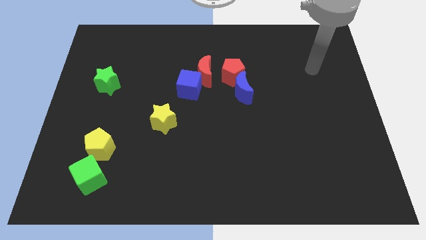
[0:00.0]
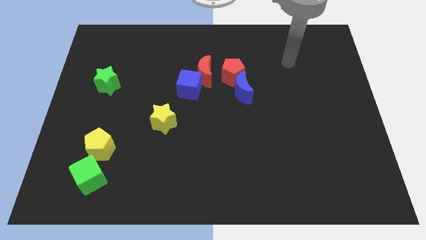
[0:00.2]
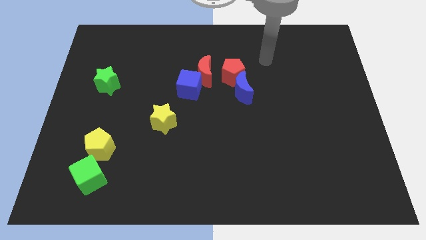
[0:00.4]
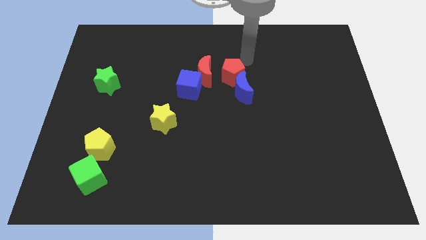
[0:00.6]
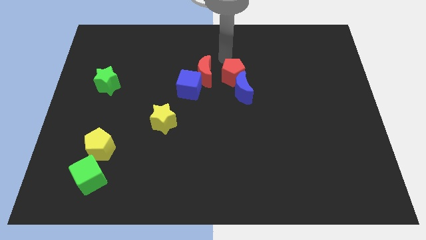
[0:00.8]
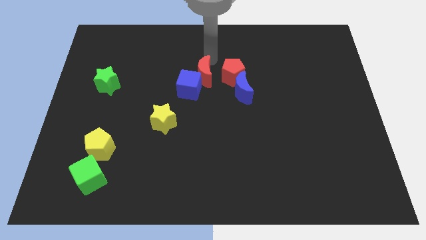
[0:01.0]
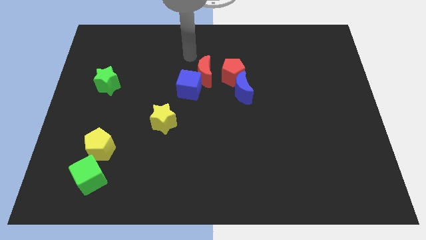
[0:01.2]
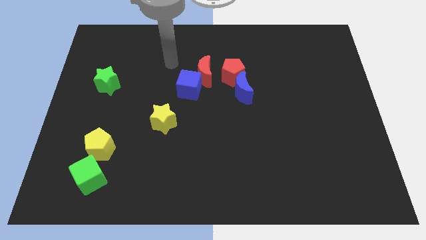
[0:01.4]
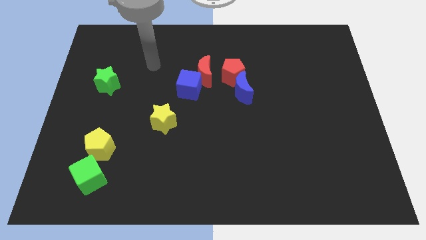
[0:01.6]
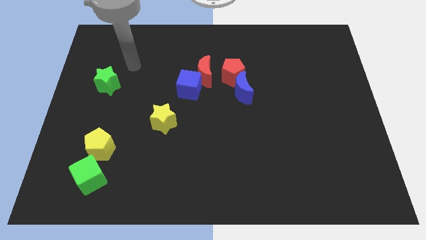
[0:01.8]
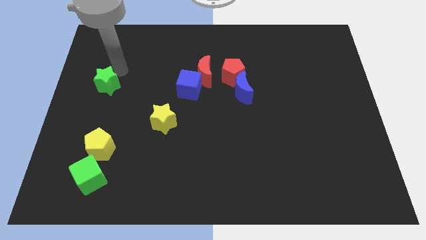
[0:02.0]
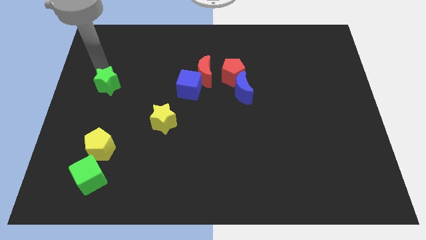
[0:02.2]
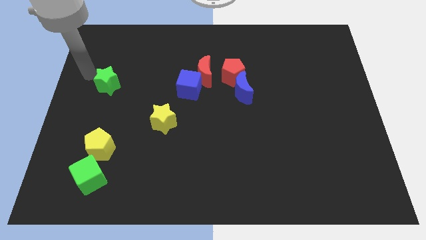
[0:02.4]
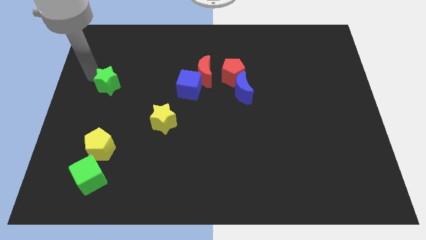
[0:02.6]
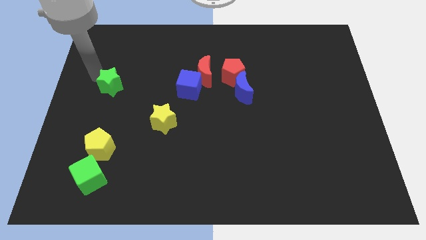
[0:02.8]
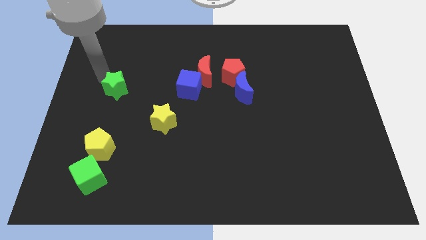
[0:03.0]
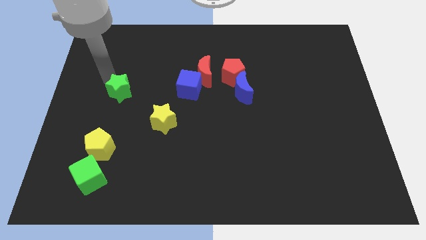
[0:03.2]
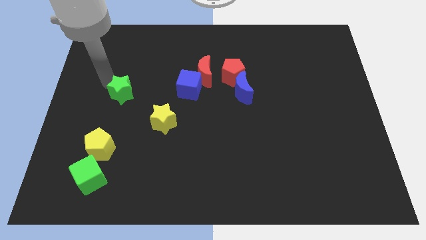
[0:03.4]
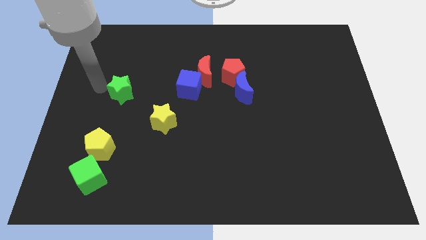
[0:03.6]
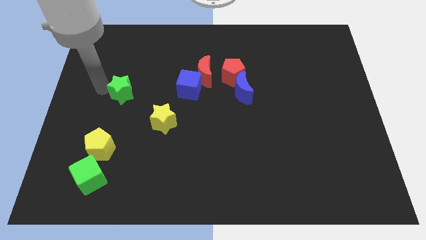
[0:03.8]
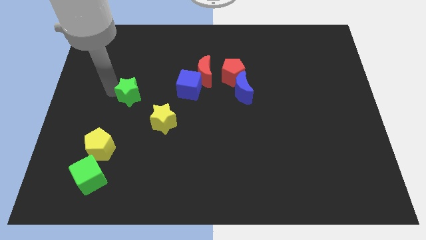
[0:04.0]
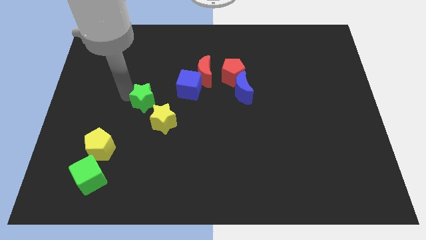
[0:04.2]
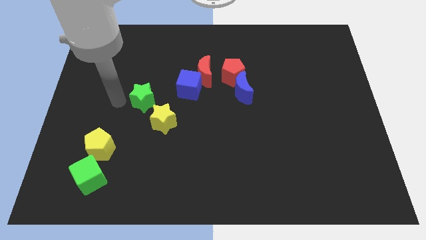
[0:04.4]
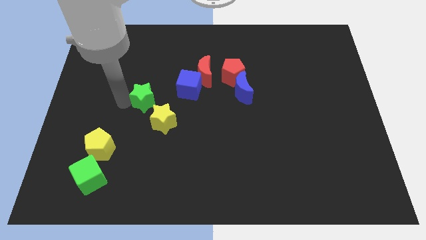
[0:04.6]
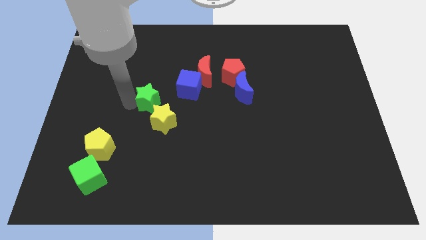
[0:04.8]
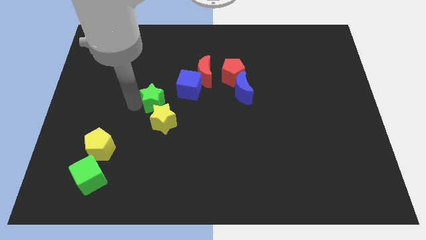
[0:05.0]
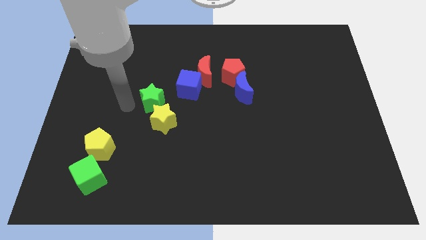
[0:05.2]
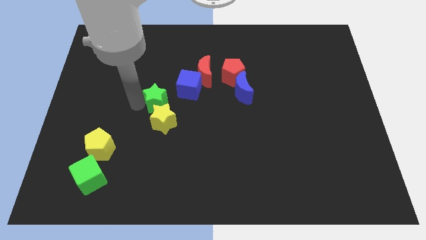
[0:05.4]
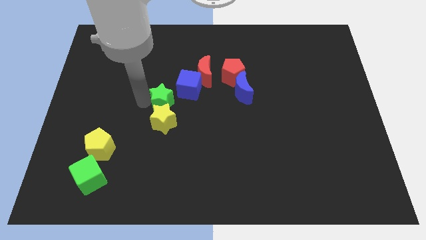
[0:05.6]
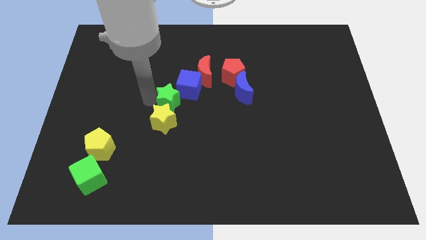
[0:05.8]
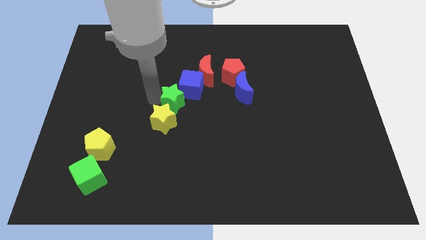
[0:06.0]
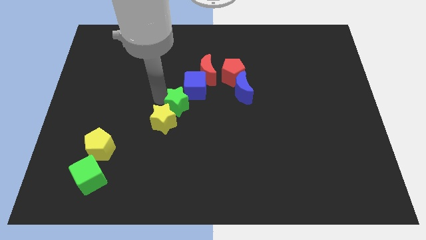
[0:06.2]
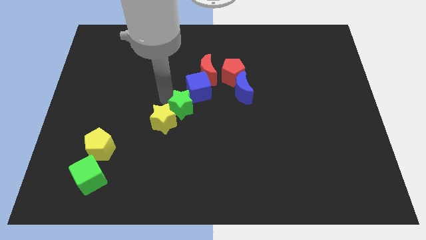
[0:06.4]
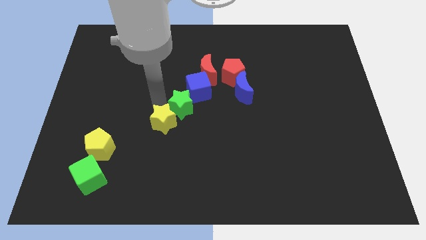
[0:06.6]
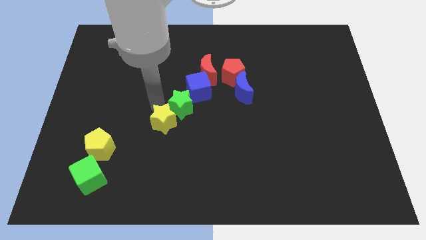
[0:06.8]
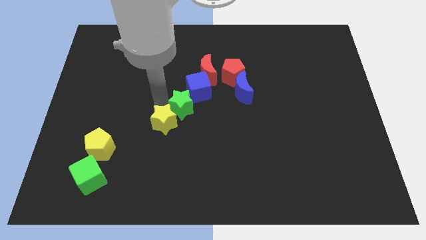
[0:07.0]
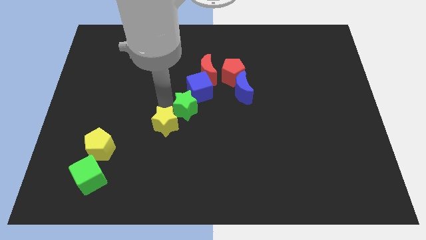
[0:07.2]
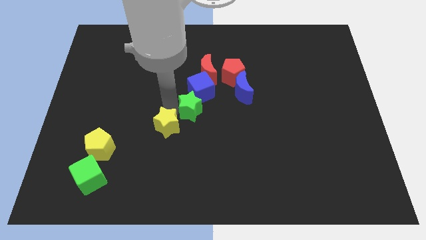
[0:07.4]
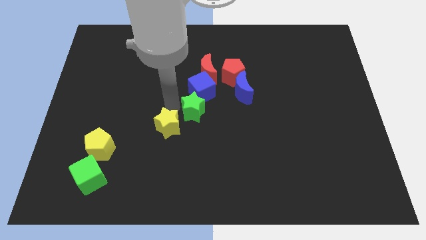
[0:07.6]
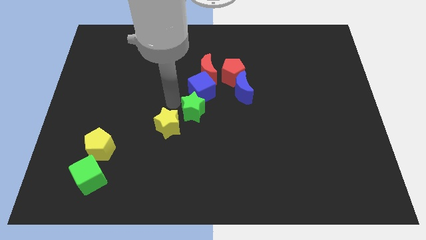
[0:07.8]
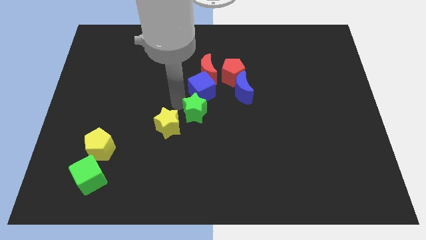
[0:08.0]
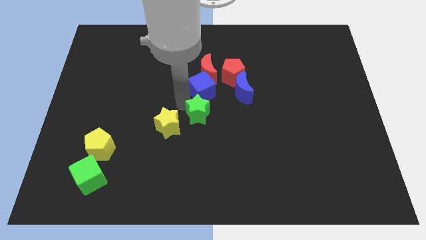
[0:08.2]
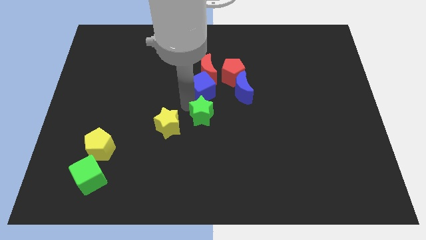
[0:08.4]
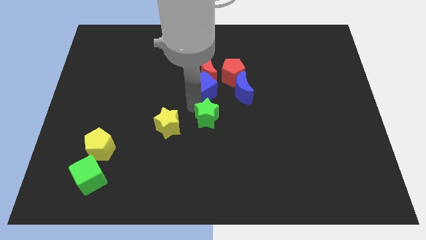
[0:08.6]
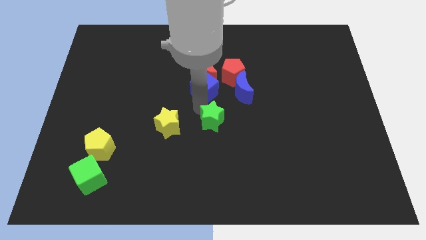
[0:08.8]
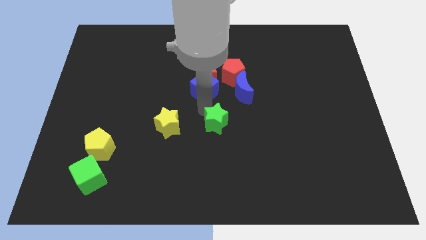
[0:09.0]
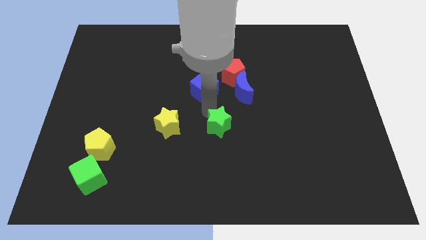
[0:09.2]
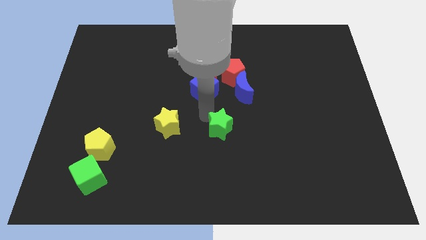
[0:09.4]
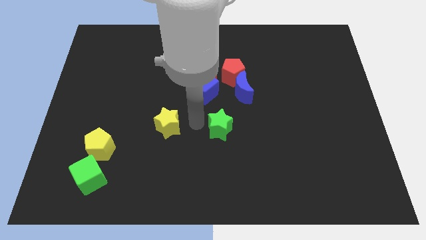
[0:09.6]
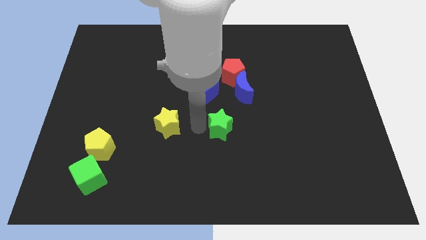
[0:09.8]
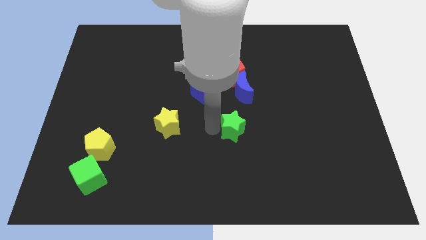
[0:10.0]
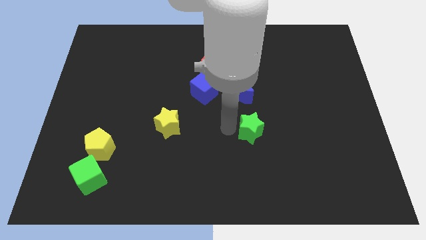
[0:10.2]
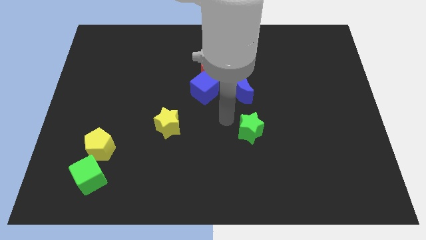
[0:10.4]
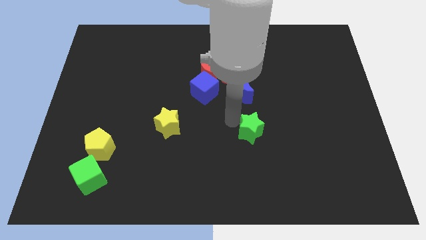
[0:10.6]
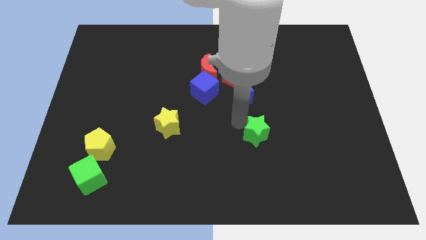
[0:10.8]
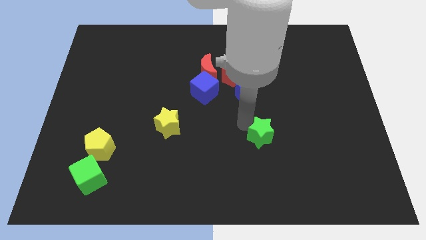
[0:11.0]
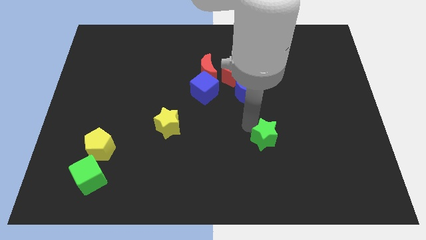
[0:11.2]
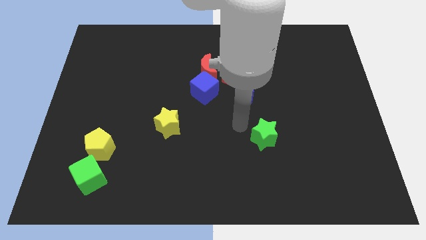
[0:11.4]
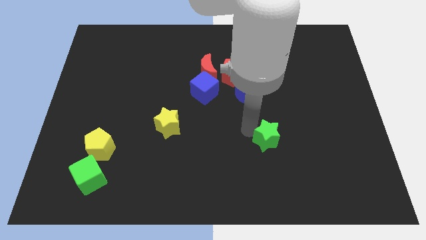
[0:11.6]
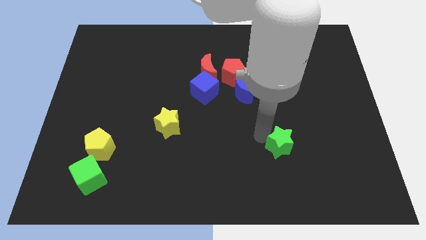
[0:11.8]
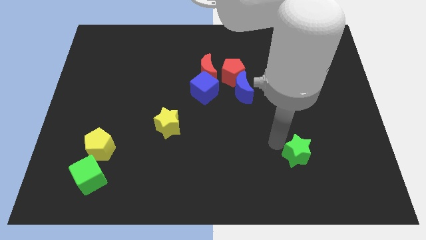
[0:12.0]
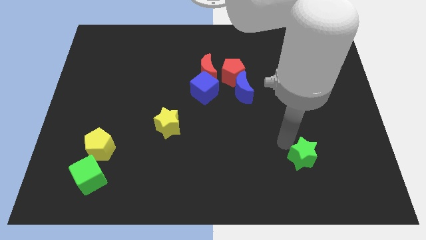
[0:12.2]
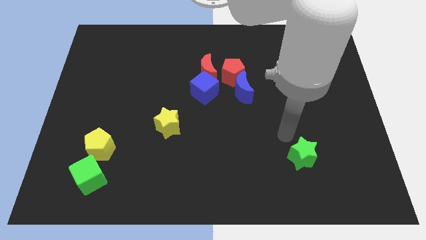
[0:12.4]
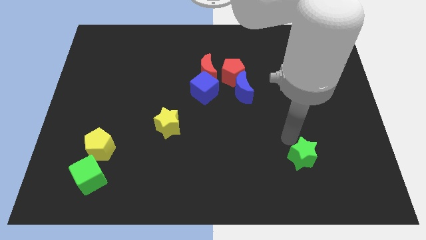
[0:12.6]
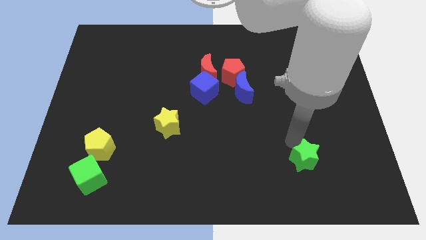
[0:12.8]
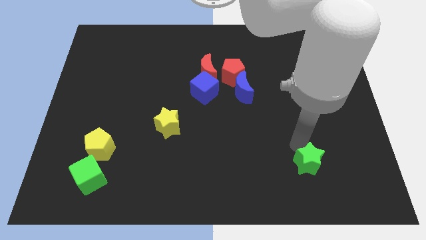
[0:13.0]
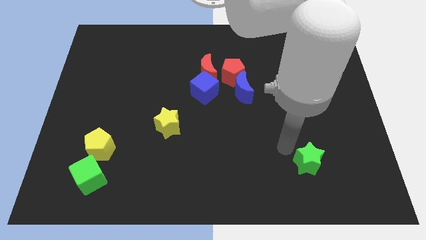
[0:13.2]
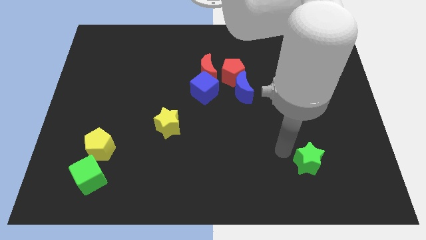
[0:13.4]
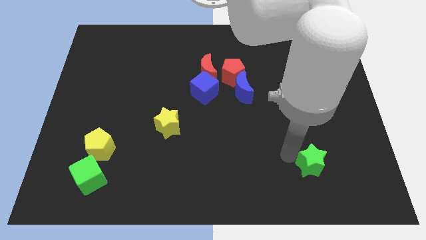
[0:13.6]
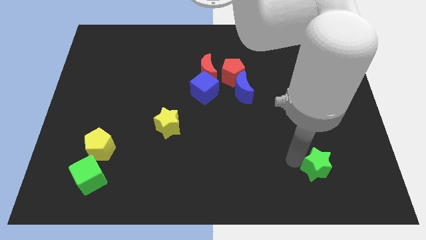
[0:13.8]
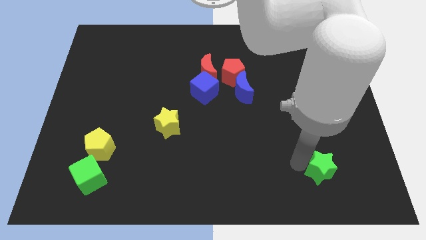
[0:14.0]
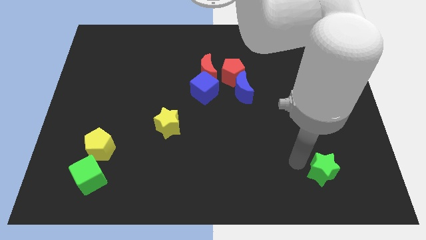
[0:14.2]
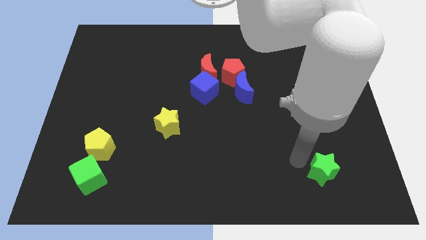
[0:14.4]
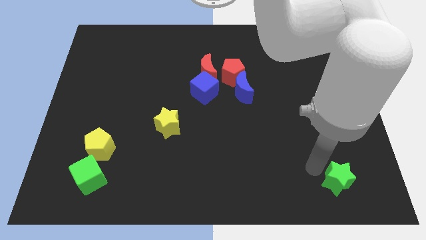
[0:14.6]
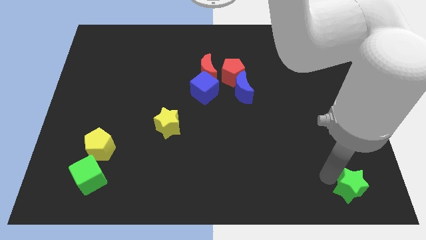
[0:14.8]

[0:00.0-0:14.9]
move the green star to the bottom right of the board
